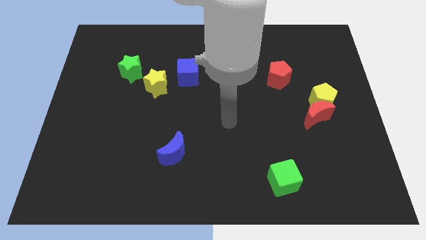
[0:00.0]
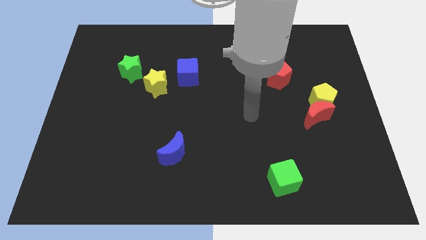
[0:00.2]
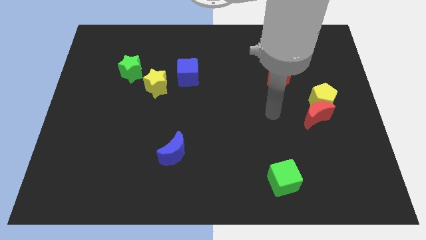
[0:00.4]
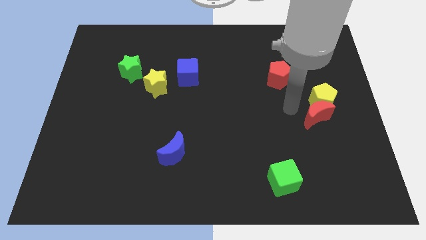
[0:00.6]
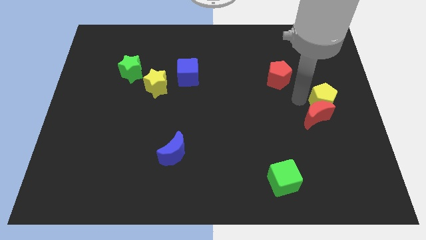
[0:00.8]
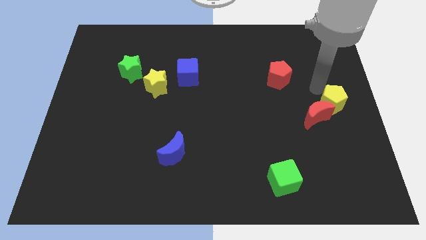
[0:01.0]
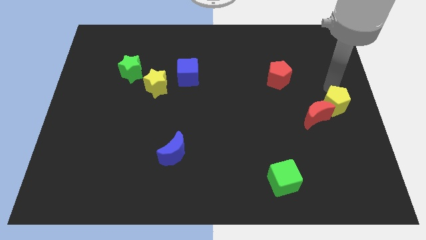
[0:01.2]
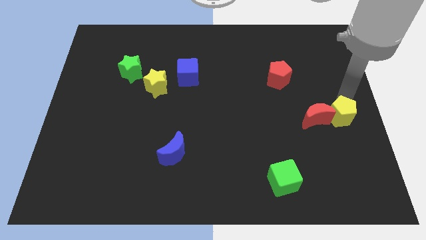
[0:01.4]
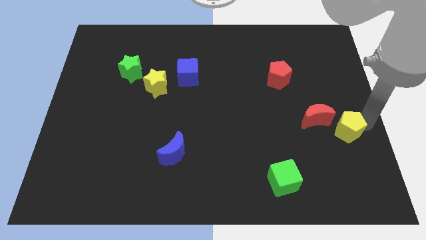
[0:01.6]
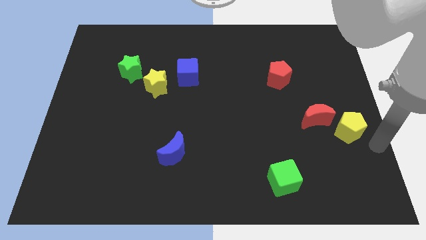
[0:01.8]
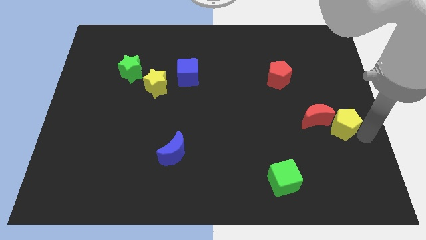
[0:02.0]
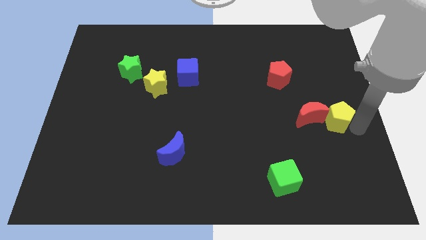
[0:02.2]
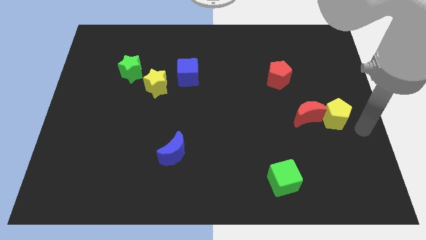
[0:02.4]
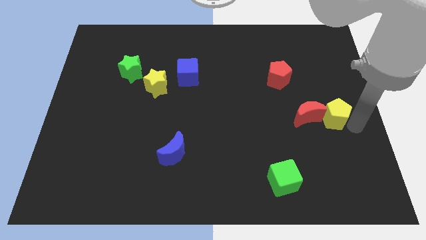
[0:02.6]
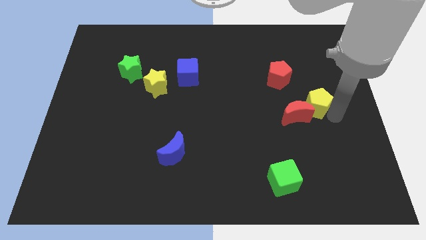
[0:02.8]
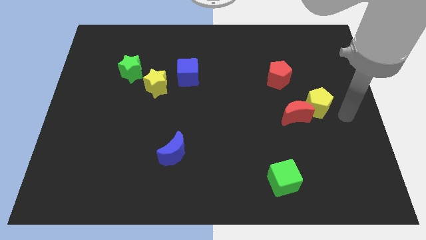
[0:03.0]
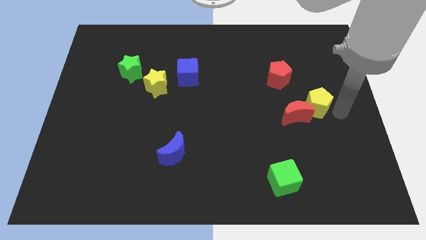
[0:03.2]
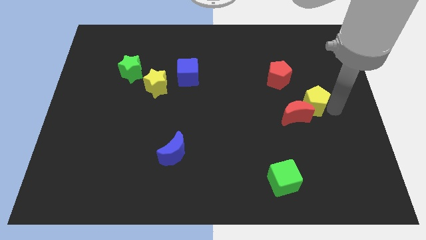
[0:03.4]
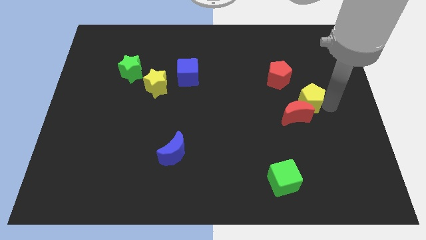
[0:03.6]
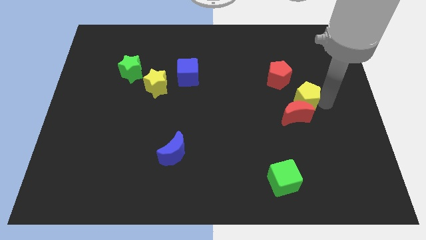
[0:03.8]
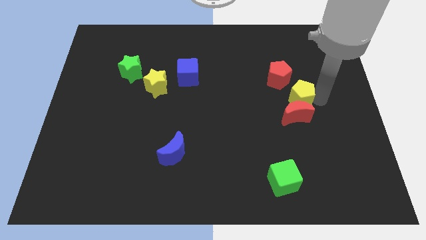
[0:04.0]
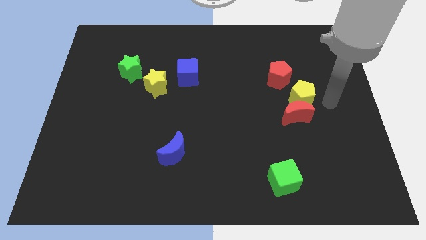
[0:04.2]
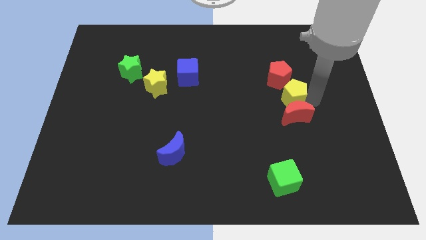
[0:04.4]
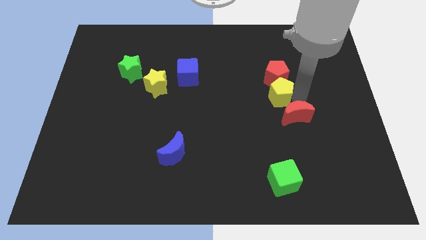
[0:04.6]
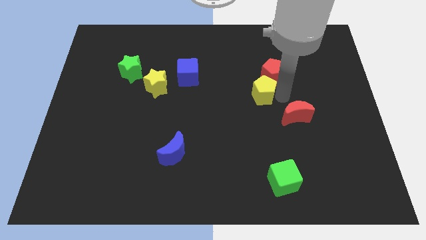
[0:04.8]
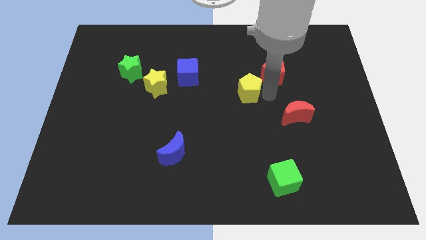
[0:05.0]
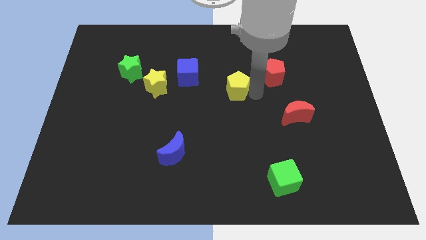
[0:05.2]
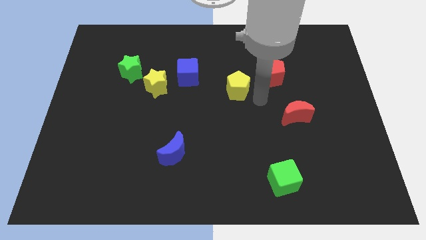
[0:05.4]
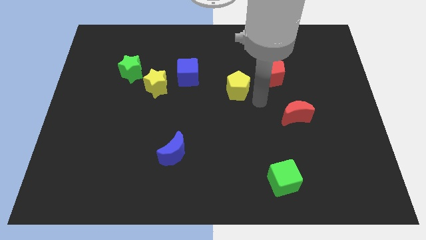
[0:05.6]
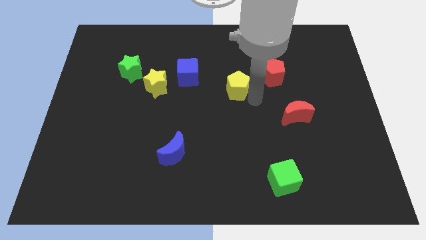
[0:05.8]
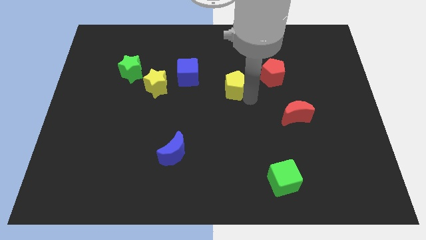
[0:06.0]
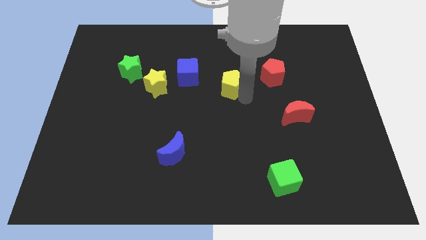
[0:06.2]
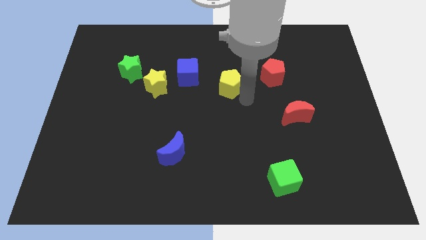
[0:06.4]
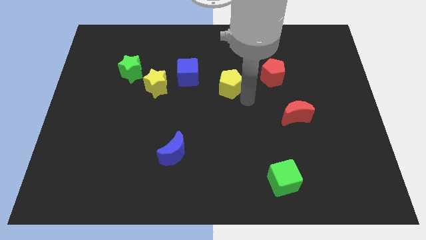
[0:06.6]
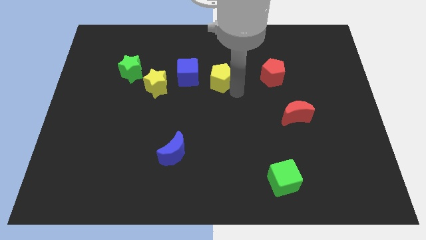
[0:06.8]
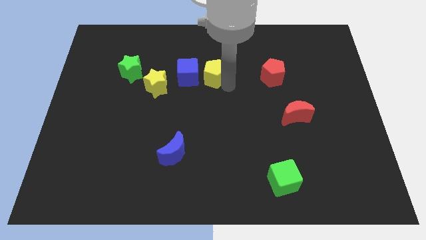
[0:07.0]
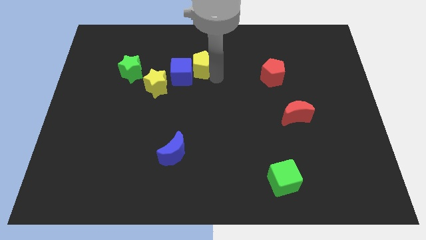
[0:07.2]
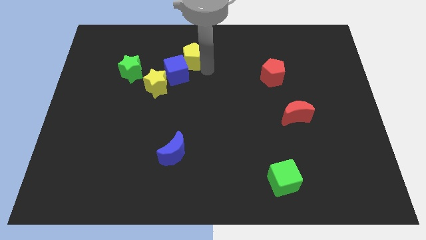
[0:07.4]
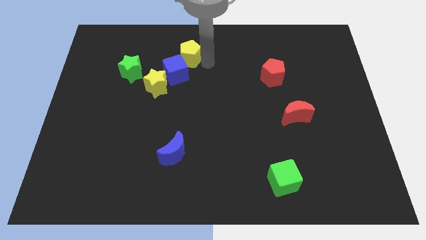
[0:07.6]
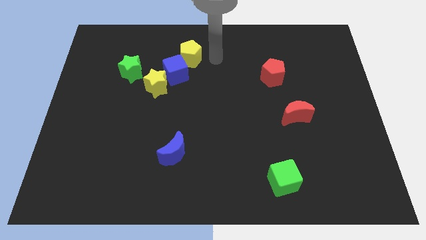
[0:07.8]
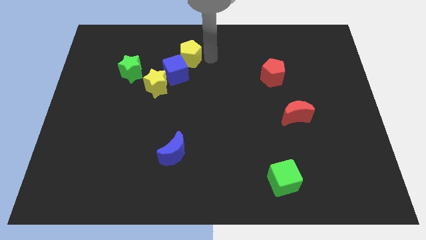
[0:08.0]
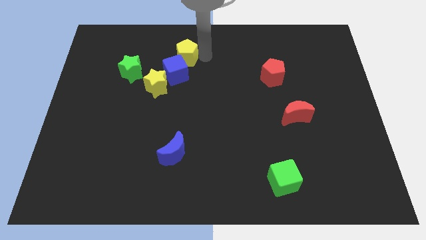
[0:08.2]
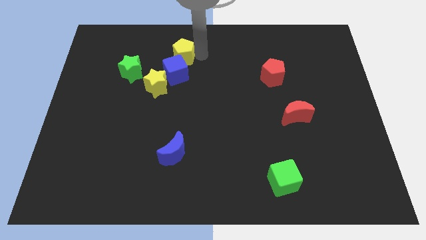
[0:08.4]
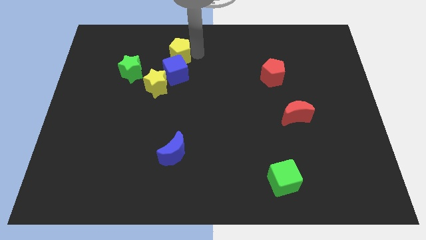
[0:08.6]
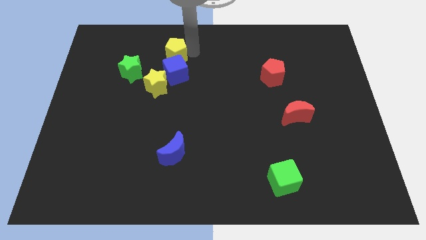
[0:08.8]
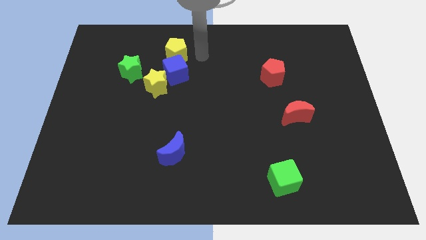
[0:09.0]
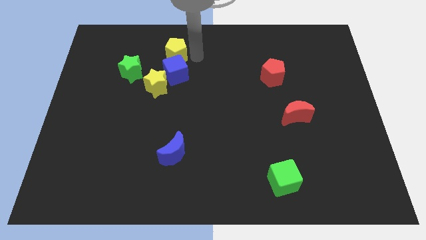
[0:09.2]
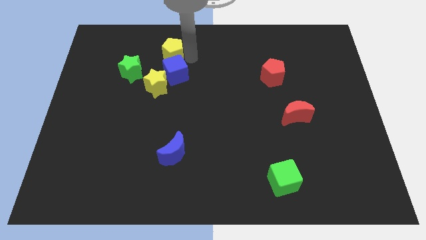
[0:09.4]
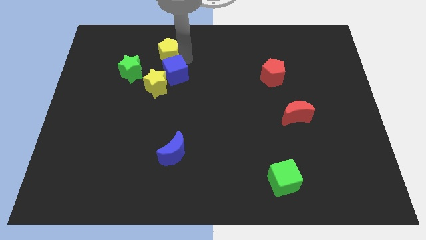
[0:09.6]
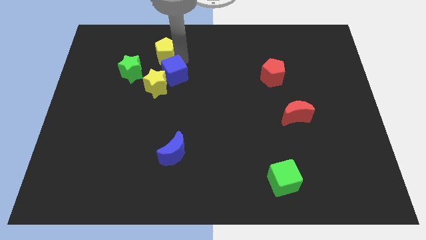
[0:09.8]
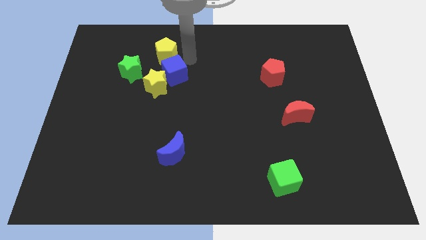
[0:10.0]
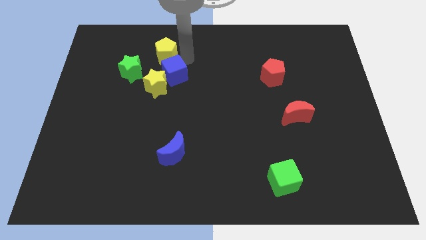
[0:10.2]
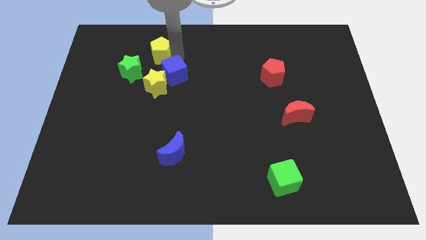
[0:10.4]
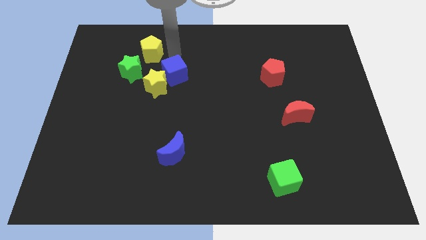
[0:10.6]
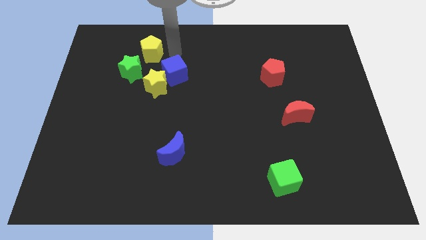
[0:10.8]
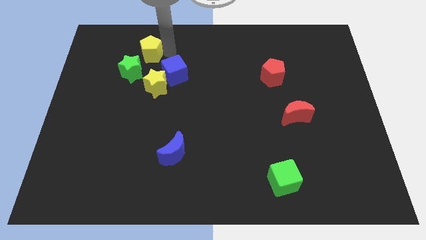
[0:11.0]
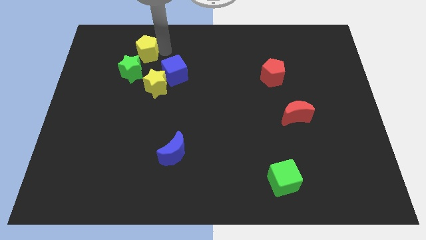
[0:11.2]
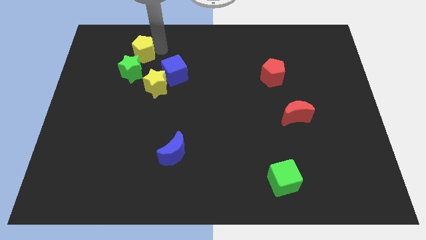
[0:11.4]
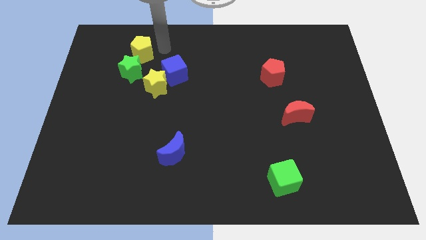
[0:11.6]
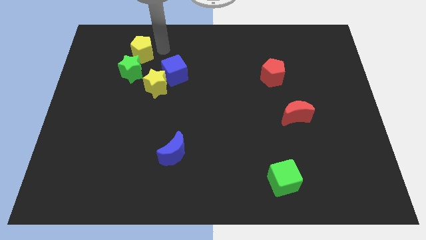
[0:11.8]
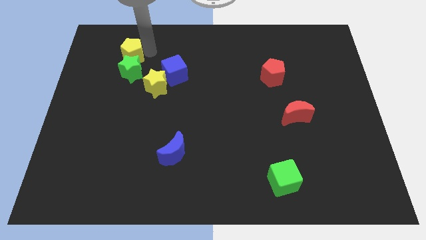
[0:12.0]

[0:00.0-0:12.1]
move the yellow pentagon to the top left of the green star

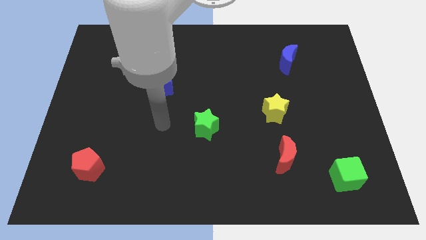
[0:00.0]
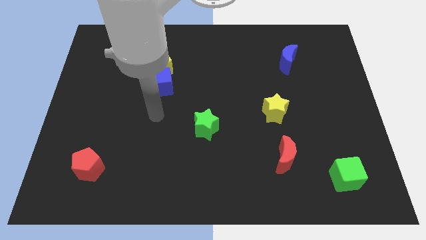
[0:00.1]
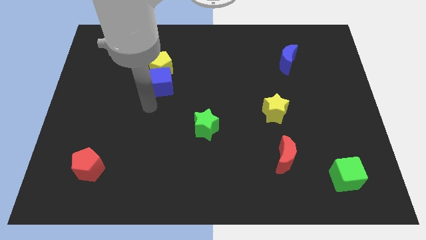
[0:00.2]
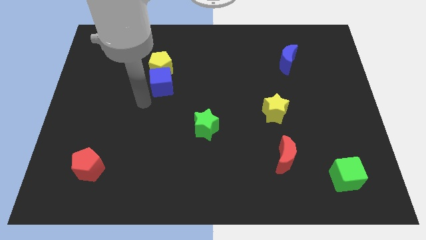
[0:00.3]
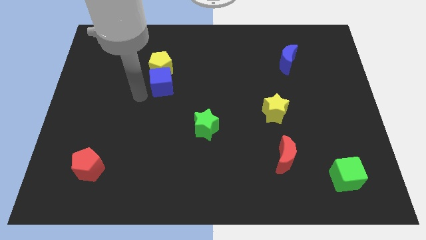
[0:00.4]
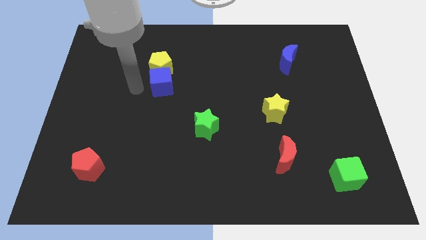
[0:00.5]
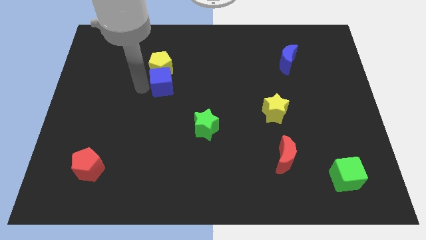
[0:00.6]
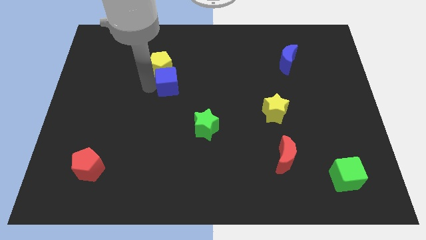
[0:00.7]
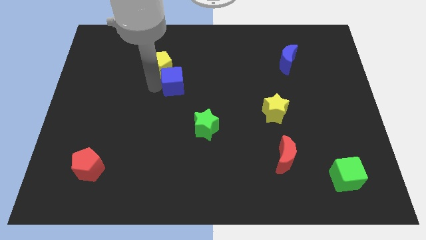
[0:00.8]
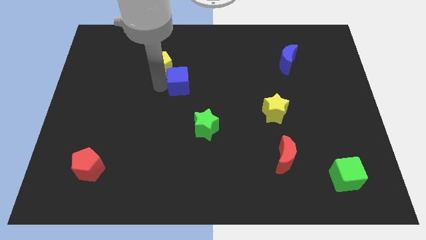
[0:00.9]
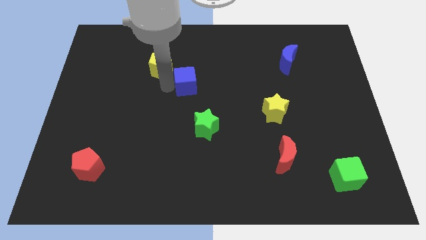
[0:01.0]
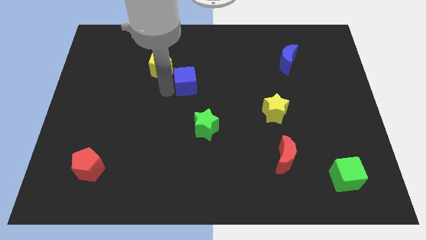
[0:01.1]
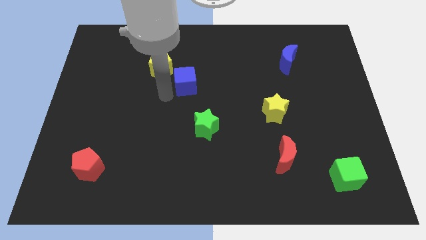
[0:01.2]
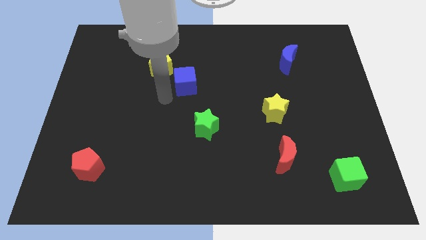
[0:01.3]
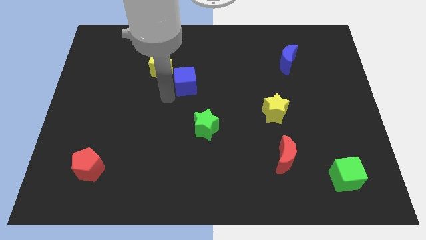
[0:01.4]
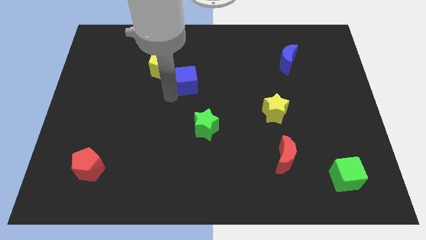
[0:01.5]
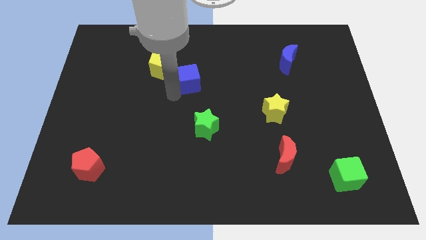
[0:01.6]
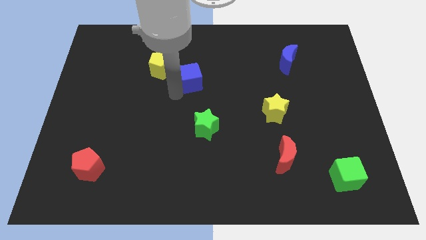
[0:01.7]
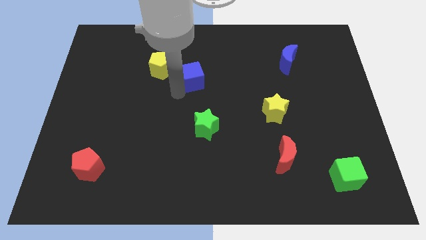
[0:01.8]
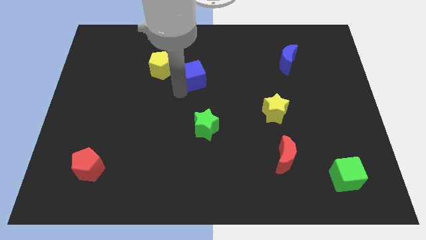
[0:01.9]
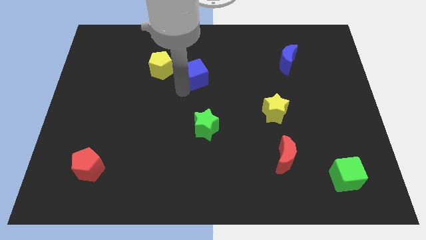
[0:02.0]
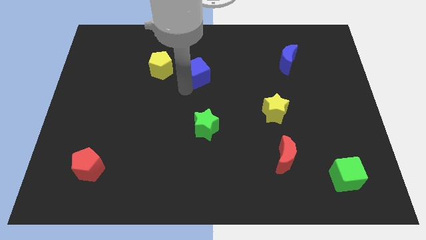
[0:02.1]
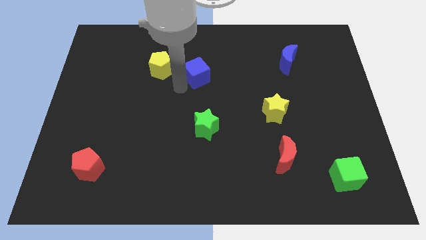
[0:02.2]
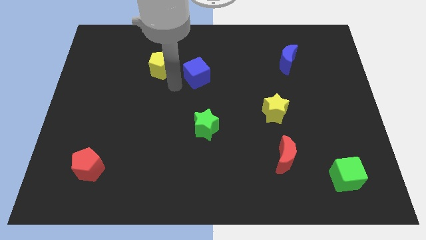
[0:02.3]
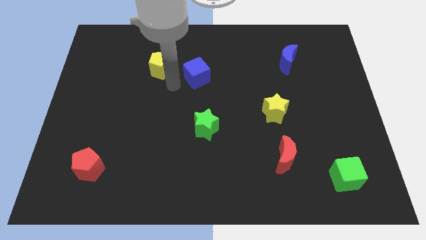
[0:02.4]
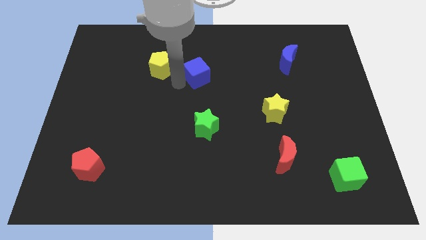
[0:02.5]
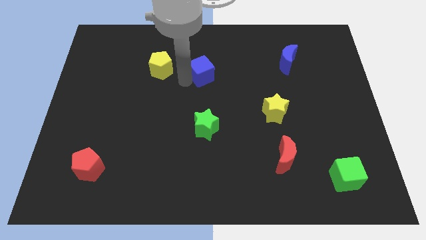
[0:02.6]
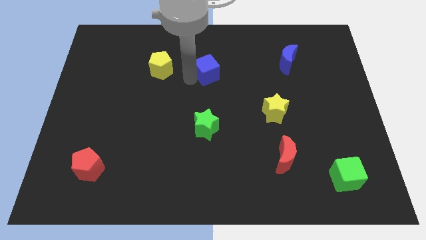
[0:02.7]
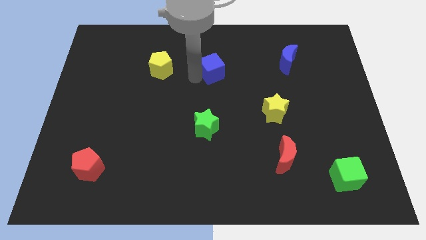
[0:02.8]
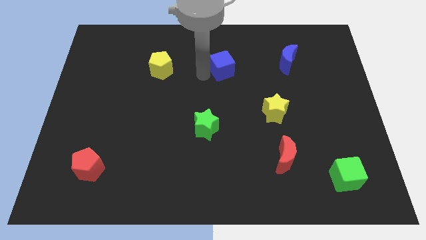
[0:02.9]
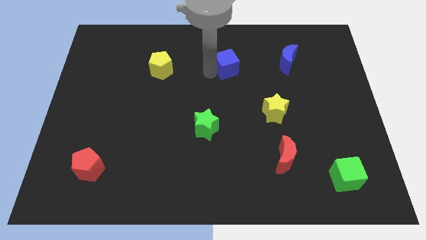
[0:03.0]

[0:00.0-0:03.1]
slide the blue cube to the left of the blue moon
